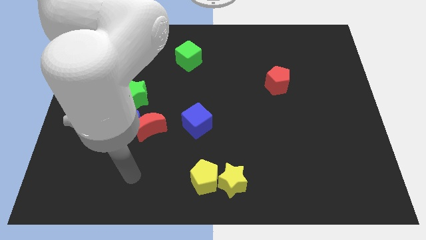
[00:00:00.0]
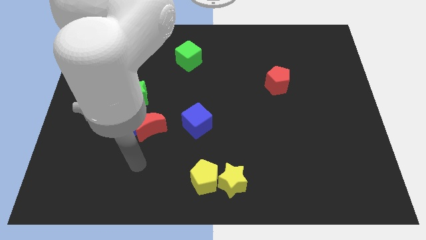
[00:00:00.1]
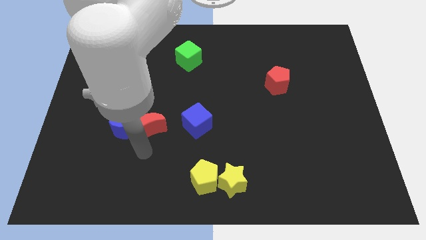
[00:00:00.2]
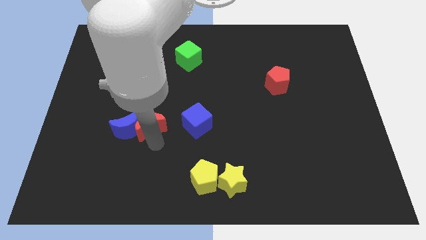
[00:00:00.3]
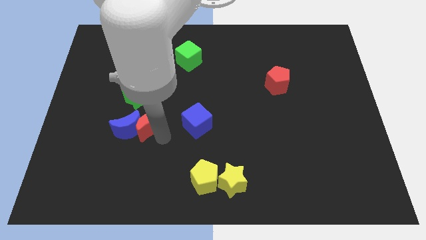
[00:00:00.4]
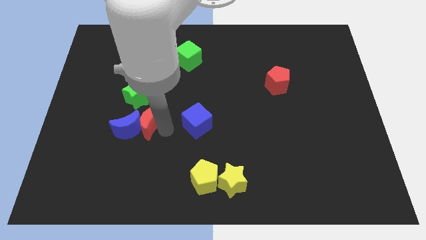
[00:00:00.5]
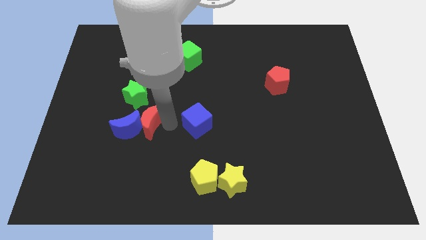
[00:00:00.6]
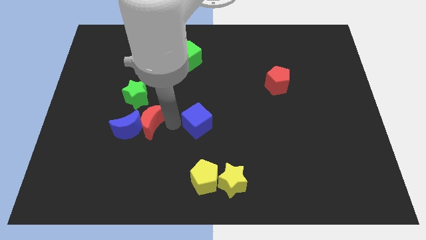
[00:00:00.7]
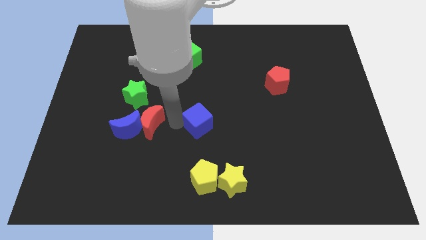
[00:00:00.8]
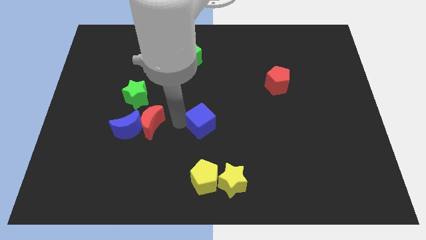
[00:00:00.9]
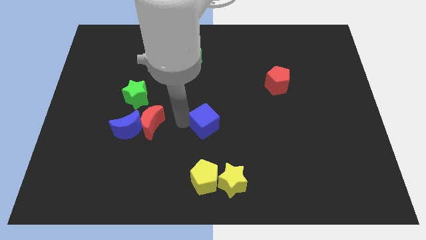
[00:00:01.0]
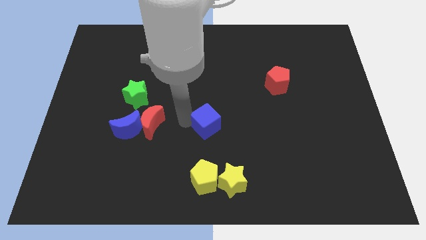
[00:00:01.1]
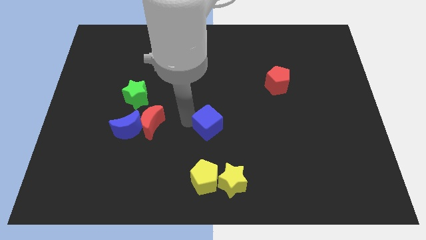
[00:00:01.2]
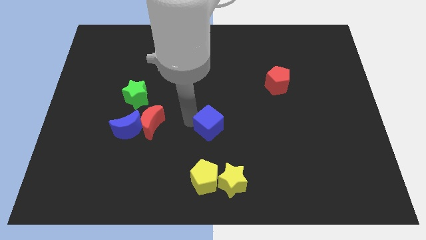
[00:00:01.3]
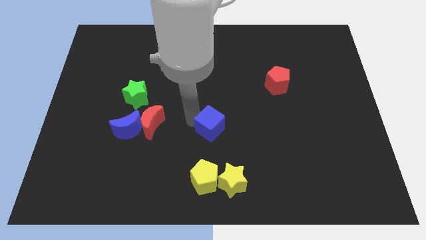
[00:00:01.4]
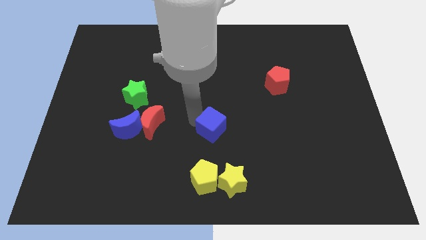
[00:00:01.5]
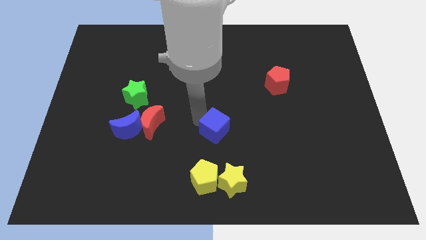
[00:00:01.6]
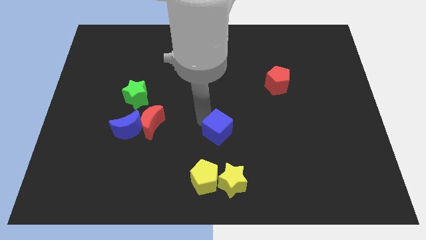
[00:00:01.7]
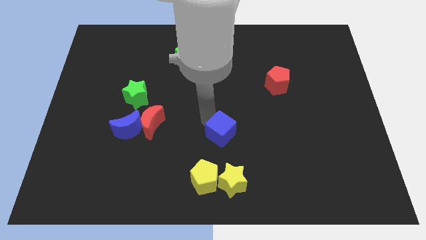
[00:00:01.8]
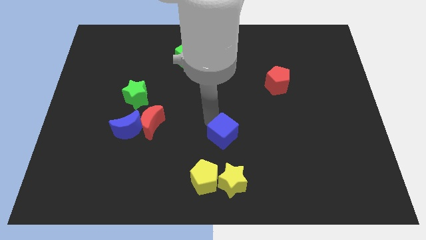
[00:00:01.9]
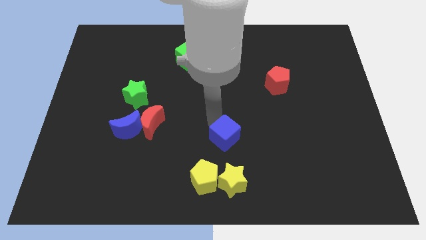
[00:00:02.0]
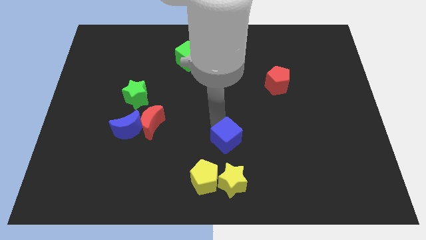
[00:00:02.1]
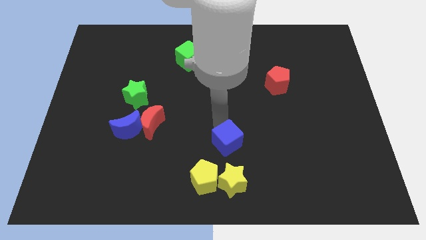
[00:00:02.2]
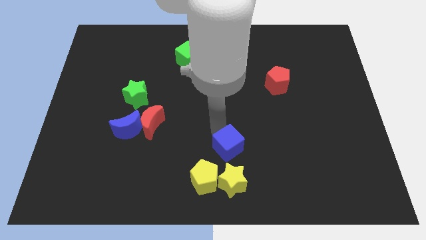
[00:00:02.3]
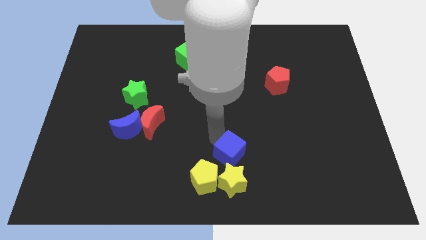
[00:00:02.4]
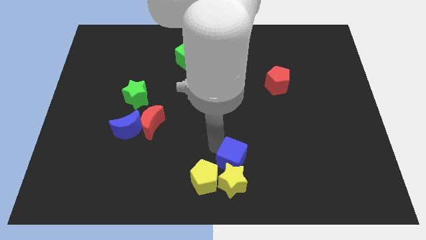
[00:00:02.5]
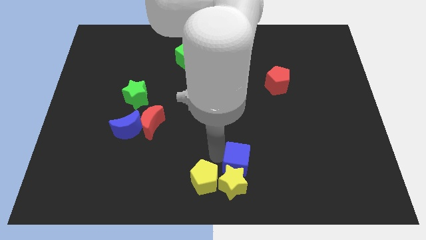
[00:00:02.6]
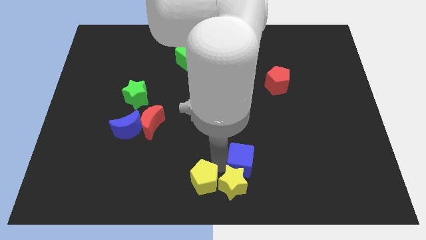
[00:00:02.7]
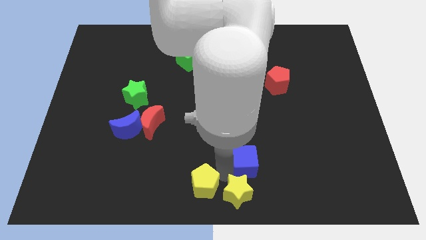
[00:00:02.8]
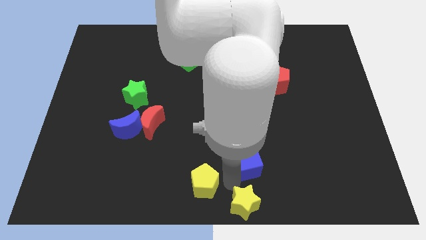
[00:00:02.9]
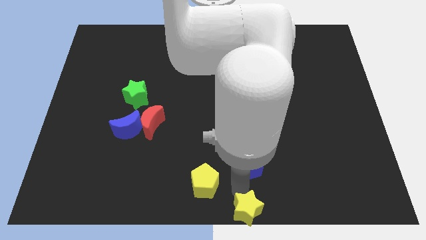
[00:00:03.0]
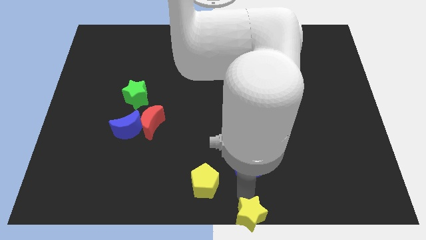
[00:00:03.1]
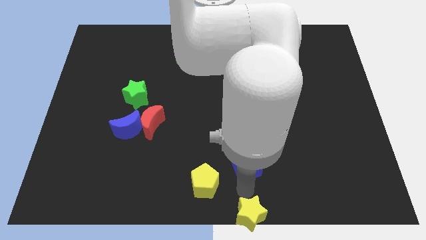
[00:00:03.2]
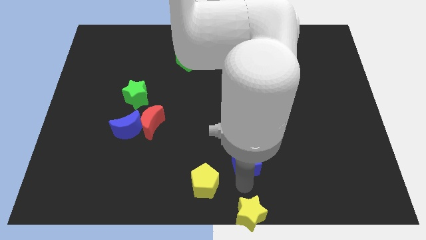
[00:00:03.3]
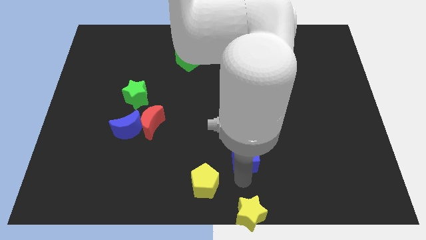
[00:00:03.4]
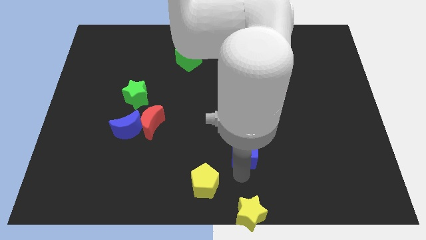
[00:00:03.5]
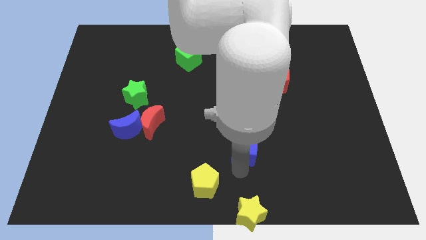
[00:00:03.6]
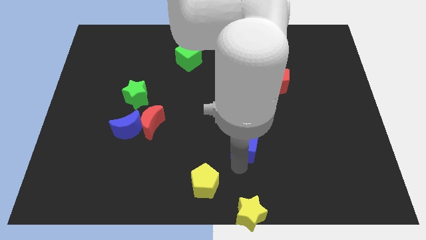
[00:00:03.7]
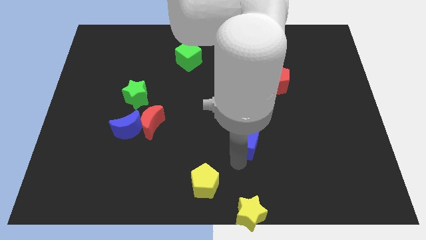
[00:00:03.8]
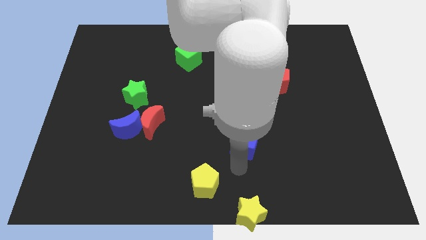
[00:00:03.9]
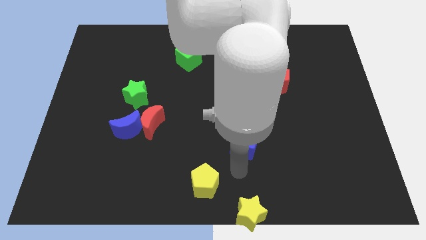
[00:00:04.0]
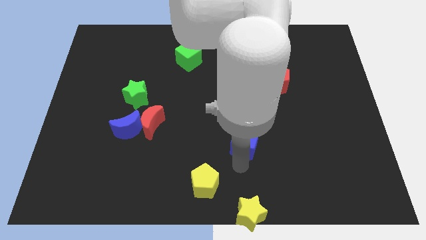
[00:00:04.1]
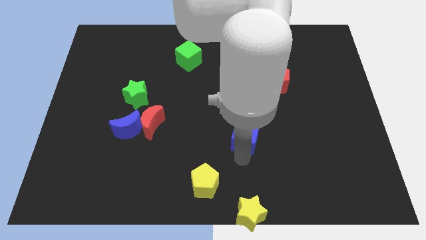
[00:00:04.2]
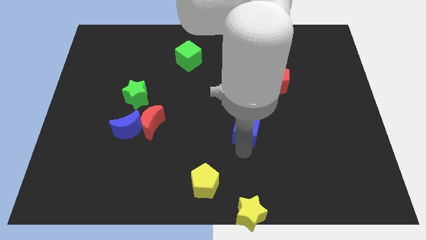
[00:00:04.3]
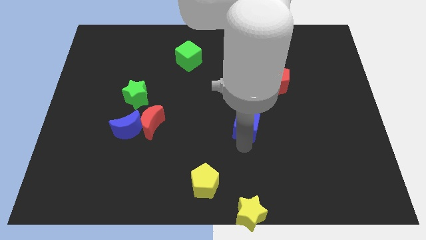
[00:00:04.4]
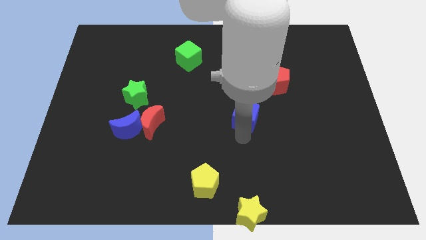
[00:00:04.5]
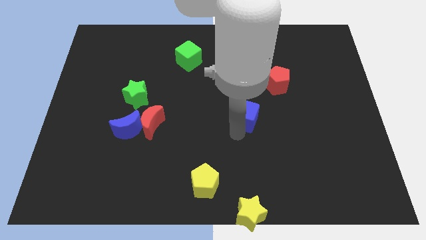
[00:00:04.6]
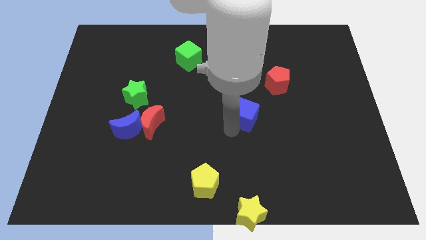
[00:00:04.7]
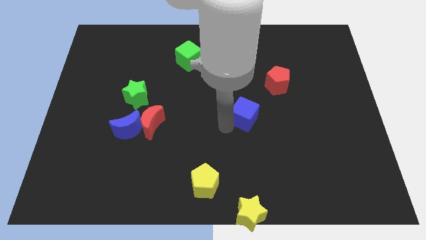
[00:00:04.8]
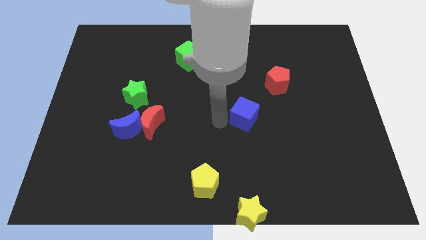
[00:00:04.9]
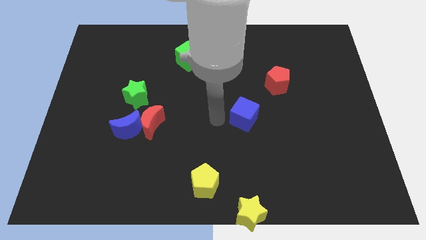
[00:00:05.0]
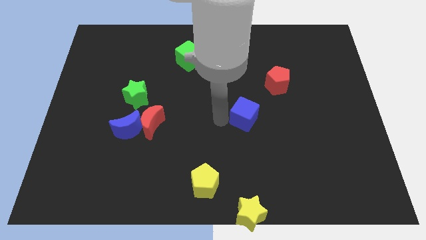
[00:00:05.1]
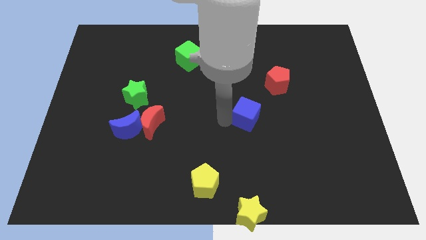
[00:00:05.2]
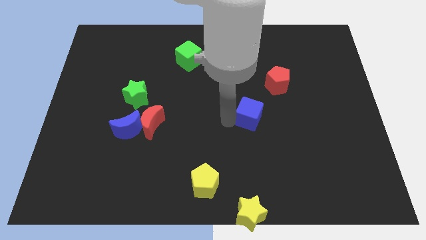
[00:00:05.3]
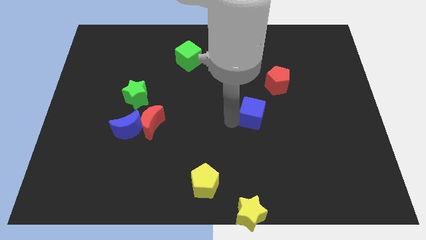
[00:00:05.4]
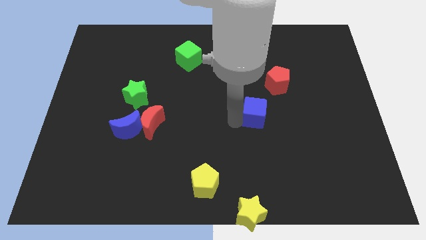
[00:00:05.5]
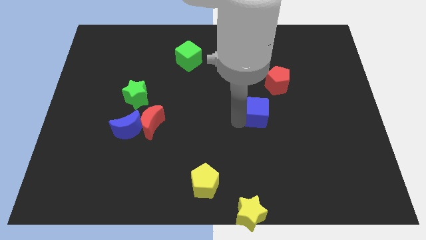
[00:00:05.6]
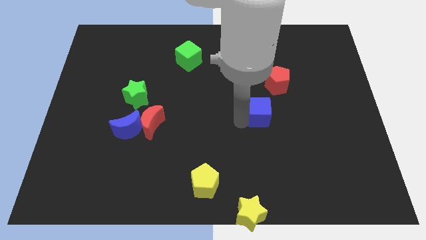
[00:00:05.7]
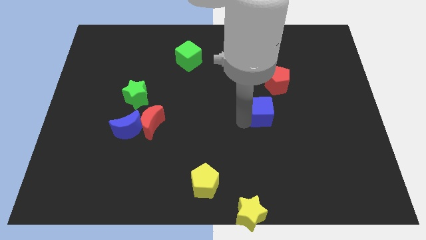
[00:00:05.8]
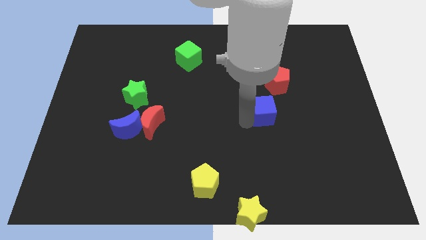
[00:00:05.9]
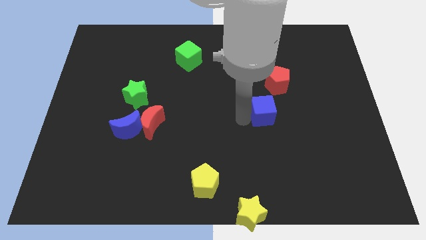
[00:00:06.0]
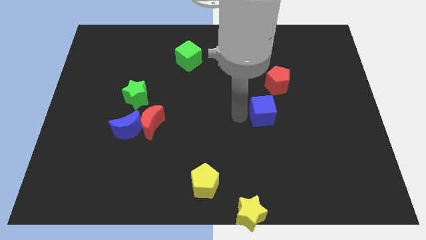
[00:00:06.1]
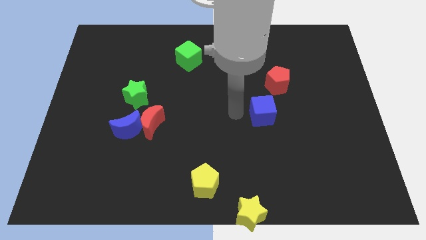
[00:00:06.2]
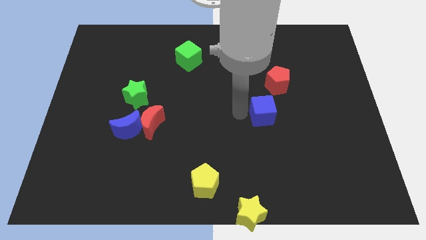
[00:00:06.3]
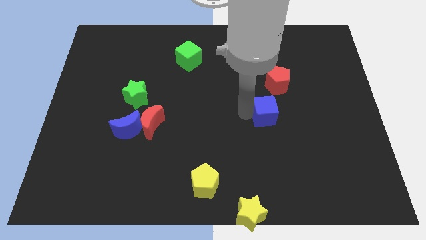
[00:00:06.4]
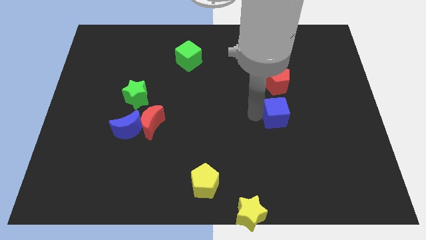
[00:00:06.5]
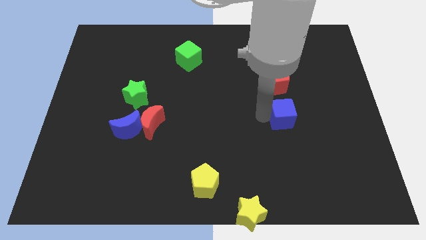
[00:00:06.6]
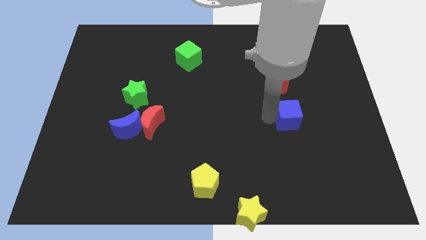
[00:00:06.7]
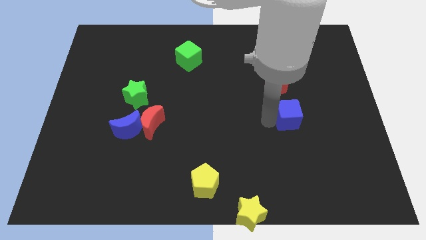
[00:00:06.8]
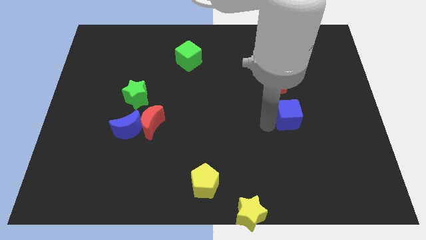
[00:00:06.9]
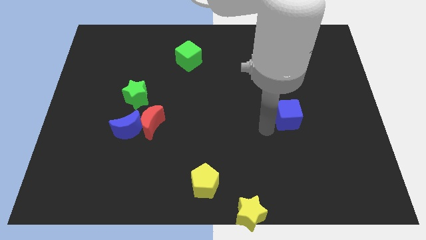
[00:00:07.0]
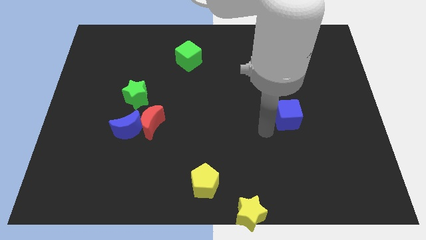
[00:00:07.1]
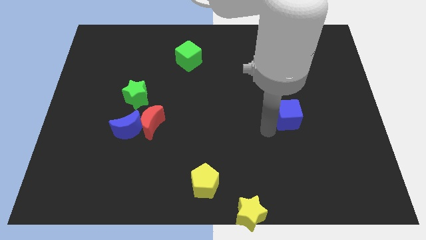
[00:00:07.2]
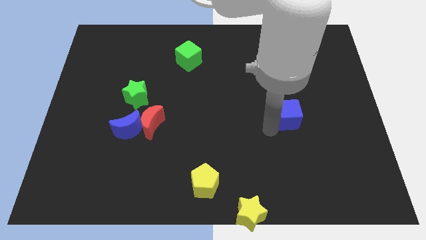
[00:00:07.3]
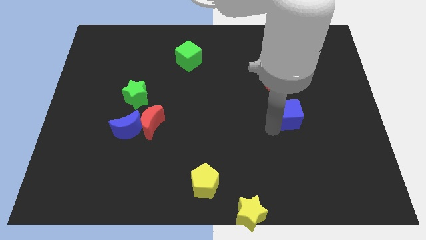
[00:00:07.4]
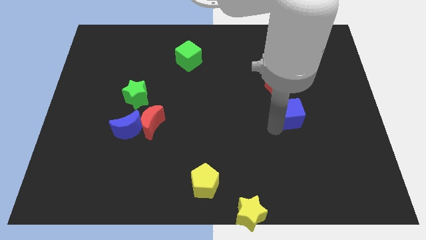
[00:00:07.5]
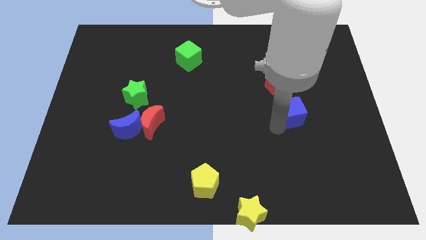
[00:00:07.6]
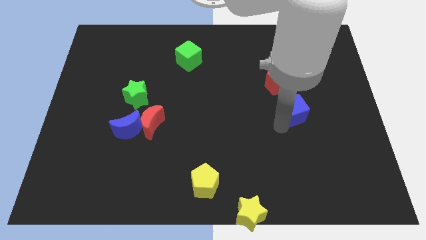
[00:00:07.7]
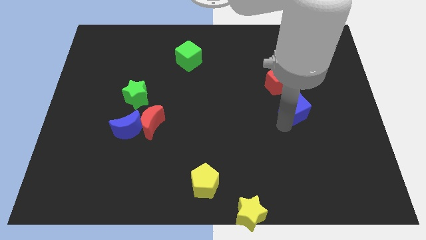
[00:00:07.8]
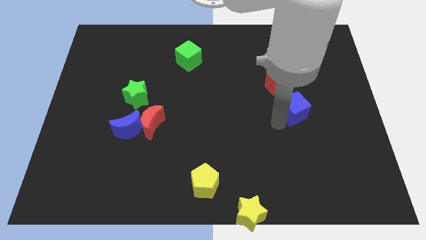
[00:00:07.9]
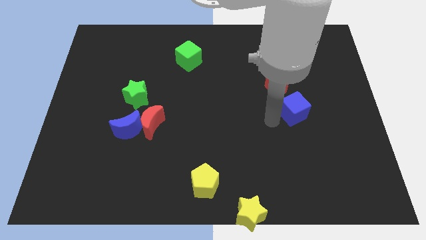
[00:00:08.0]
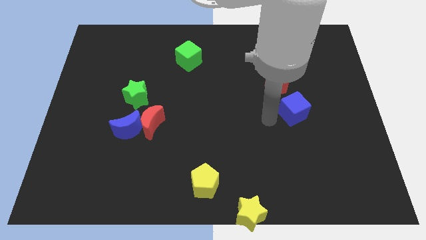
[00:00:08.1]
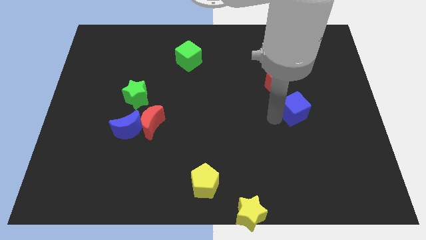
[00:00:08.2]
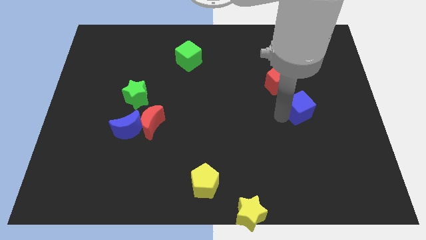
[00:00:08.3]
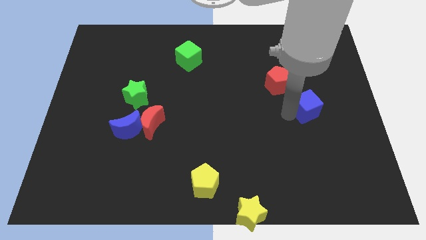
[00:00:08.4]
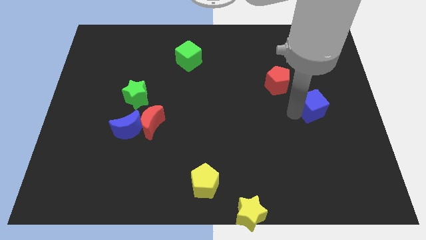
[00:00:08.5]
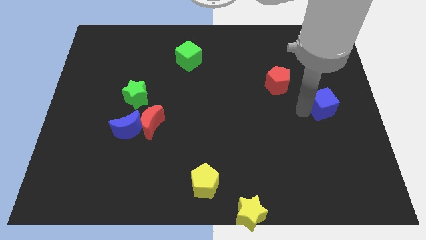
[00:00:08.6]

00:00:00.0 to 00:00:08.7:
push the blue cube to the right side of the board
